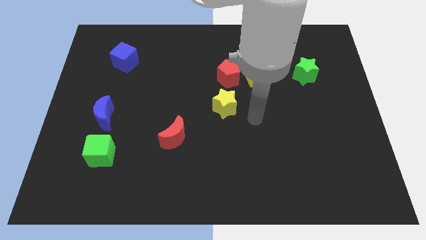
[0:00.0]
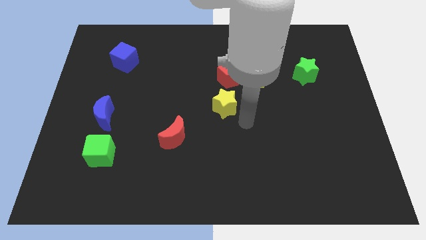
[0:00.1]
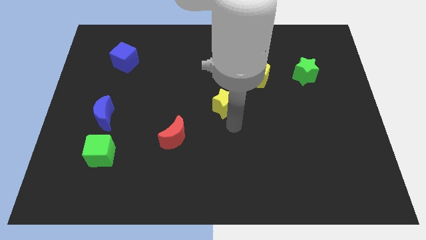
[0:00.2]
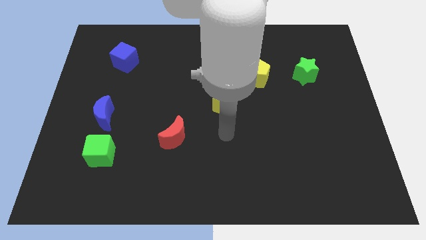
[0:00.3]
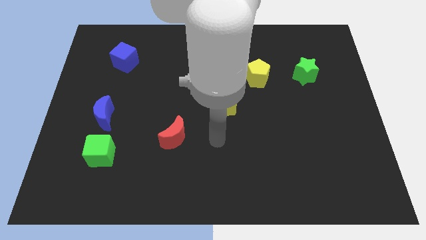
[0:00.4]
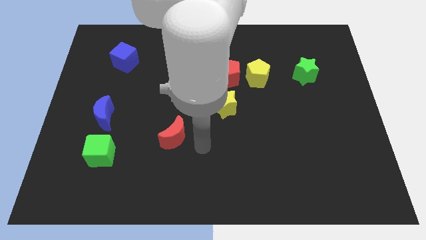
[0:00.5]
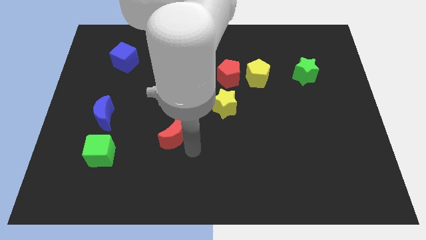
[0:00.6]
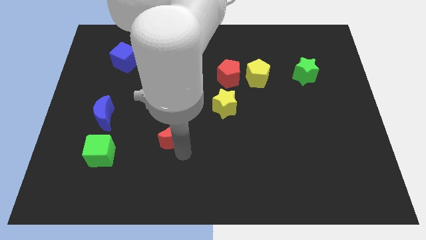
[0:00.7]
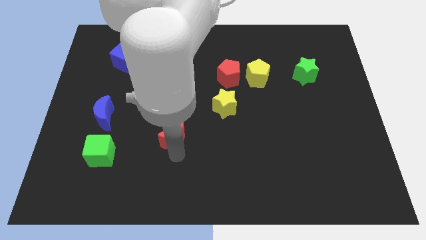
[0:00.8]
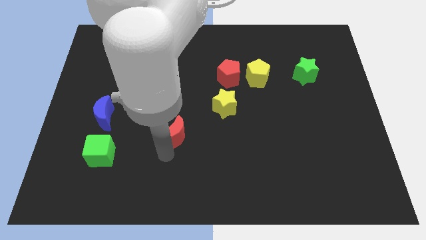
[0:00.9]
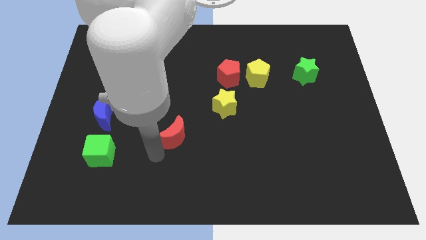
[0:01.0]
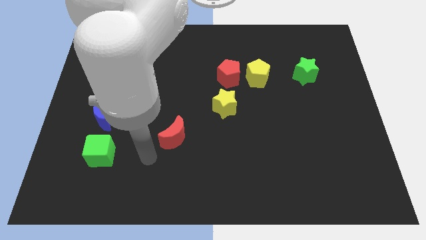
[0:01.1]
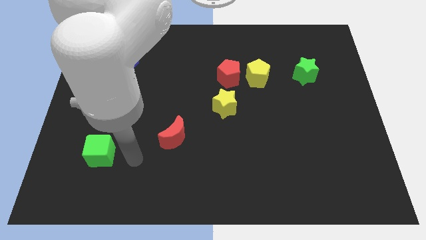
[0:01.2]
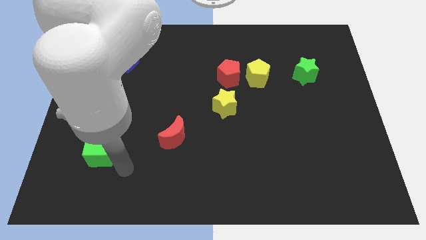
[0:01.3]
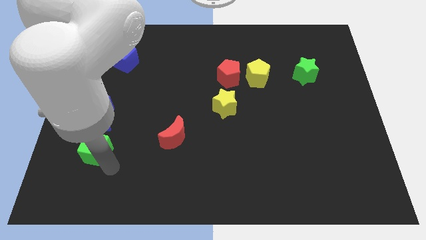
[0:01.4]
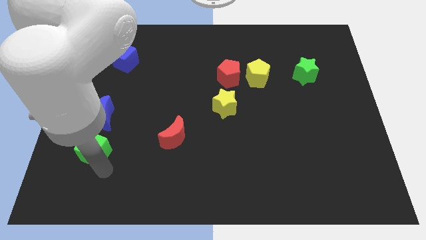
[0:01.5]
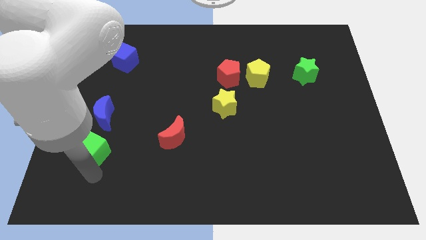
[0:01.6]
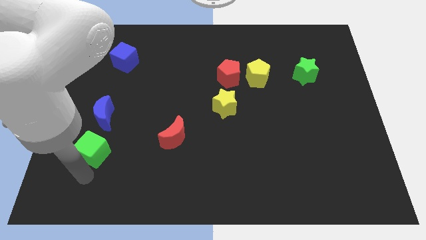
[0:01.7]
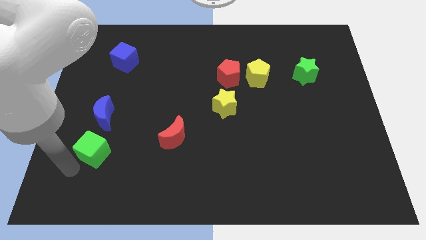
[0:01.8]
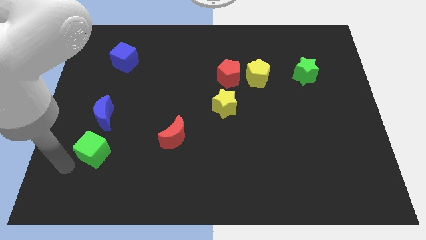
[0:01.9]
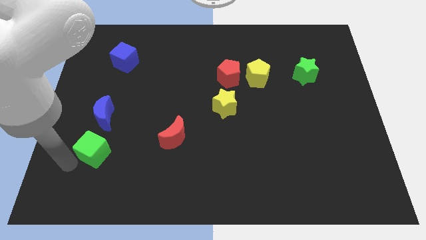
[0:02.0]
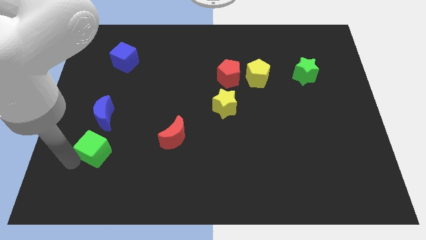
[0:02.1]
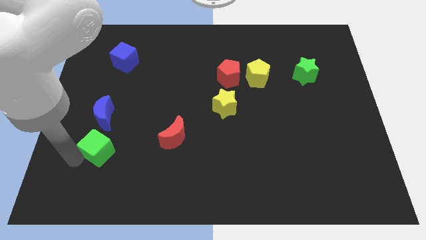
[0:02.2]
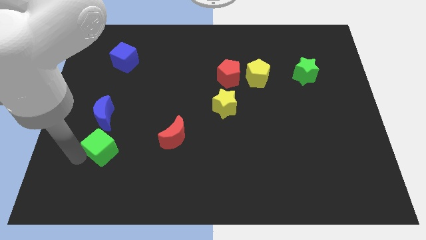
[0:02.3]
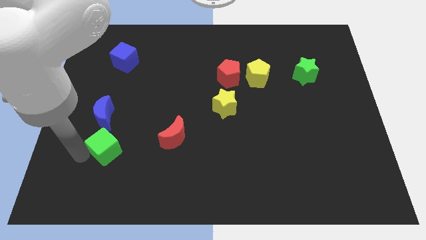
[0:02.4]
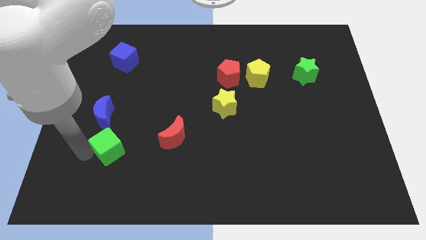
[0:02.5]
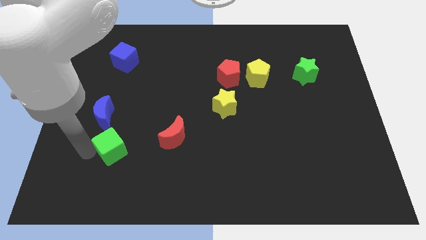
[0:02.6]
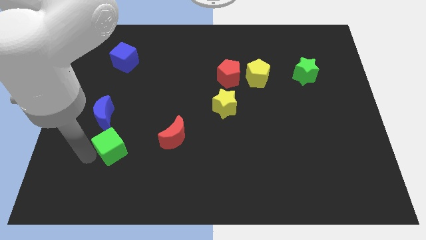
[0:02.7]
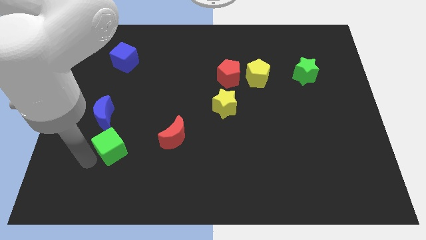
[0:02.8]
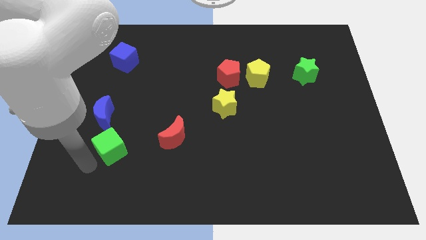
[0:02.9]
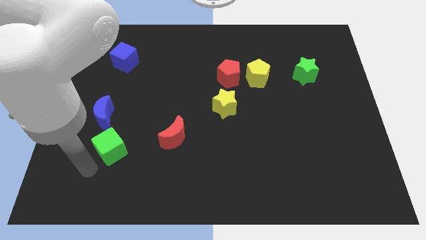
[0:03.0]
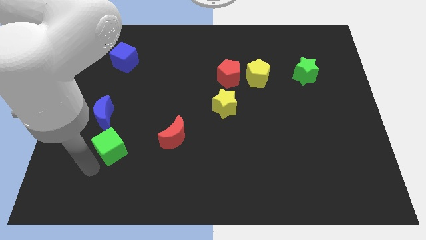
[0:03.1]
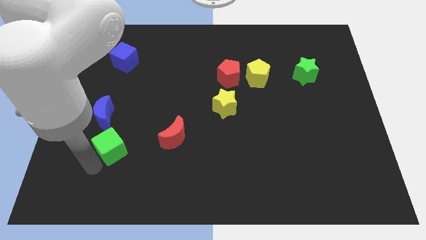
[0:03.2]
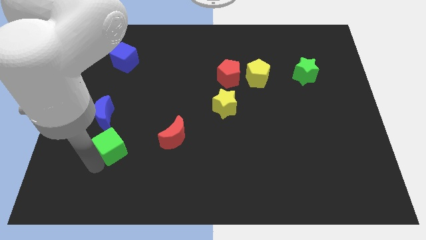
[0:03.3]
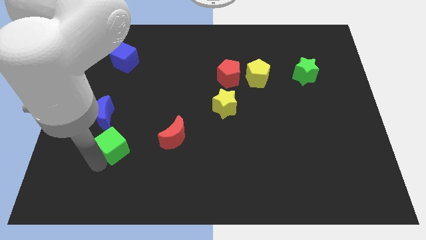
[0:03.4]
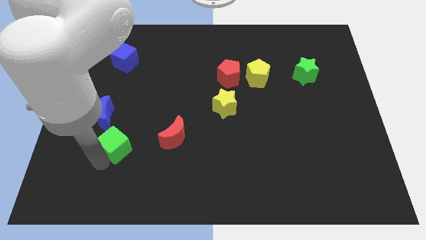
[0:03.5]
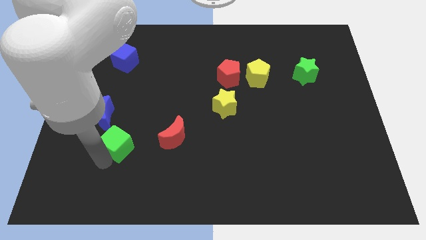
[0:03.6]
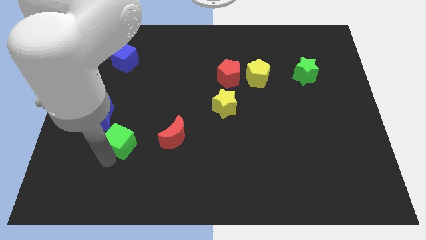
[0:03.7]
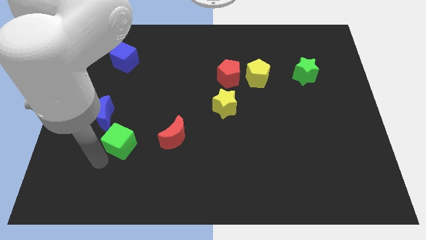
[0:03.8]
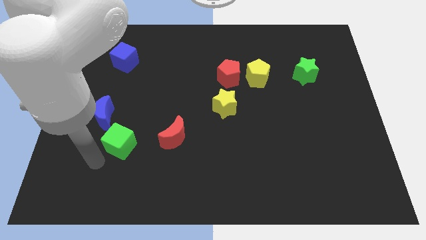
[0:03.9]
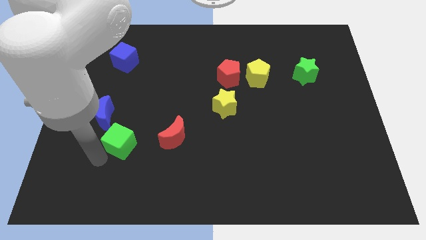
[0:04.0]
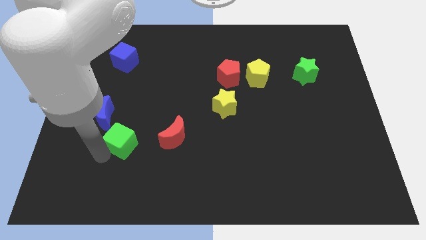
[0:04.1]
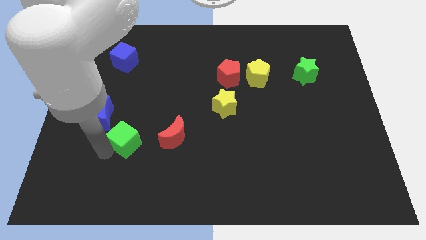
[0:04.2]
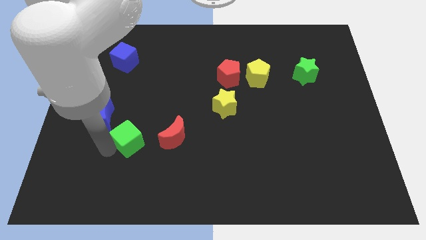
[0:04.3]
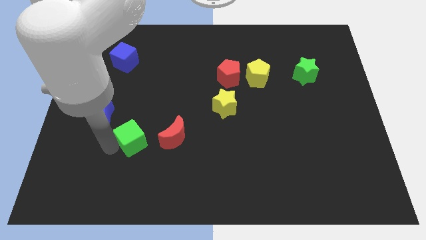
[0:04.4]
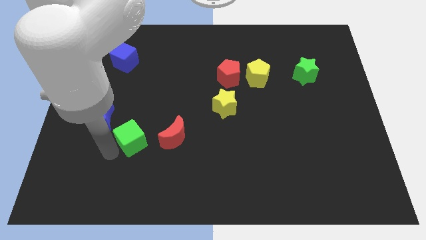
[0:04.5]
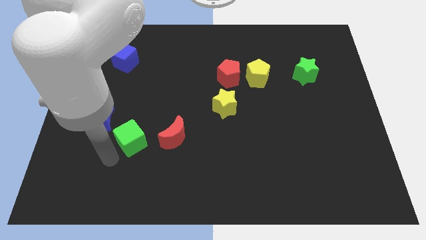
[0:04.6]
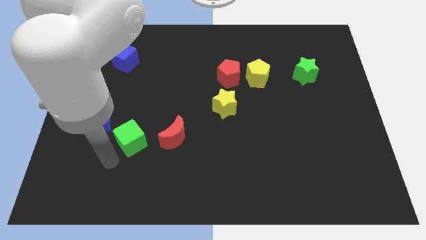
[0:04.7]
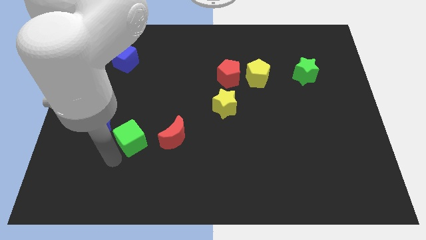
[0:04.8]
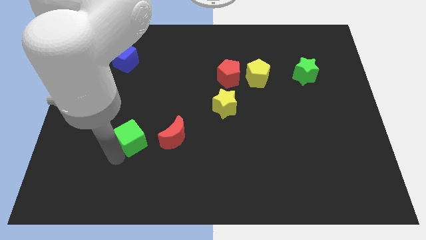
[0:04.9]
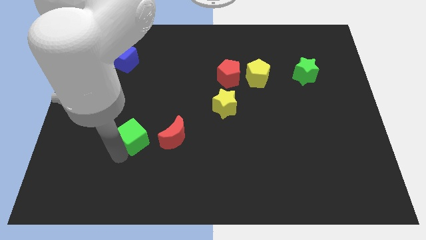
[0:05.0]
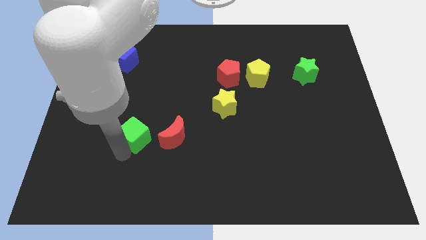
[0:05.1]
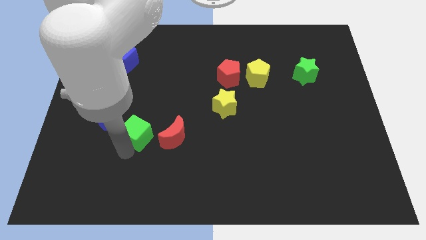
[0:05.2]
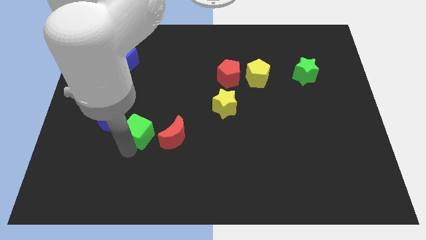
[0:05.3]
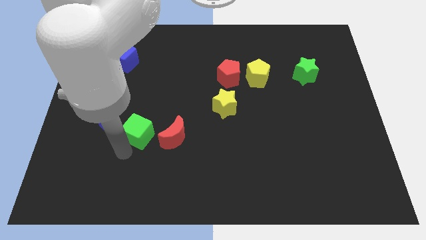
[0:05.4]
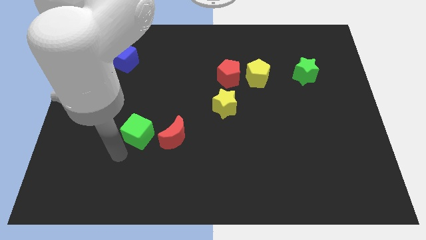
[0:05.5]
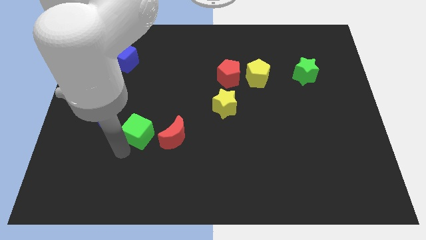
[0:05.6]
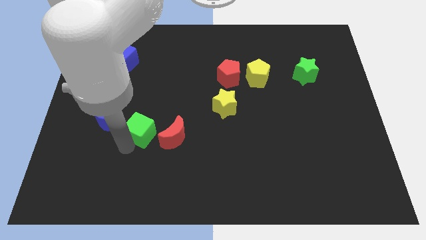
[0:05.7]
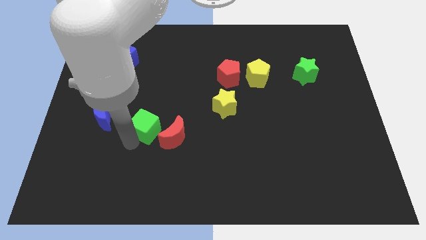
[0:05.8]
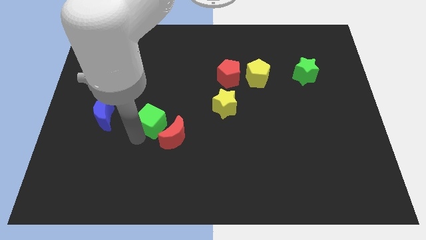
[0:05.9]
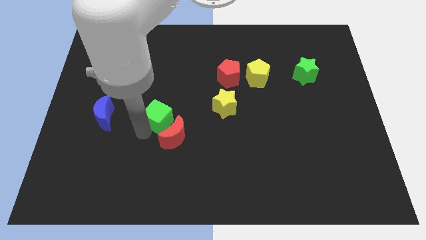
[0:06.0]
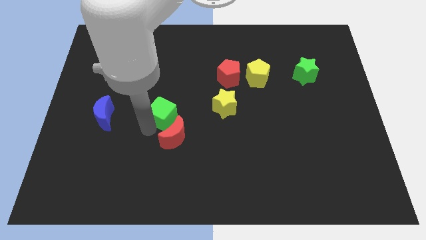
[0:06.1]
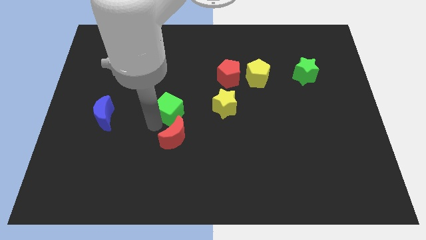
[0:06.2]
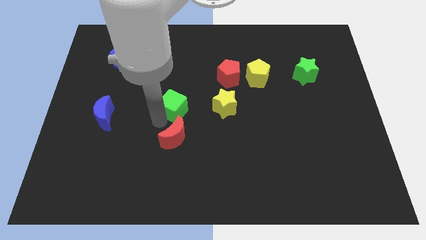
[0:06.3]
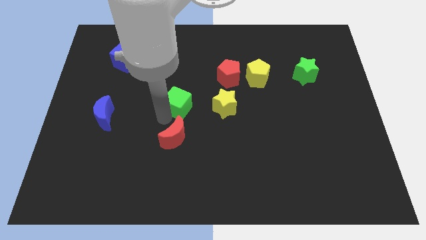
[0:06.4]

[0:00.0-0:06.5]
push the green cube upwards and then to the right

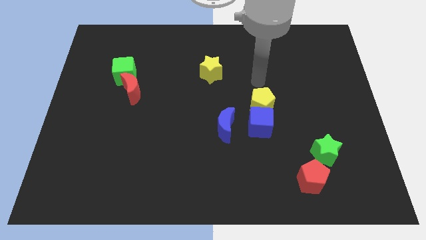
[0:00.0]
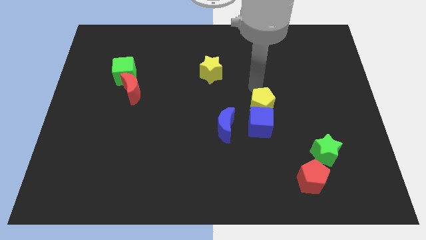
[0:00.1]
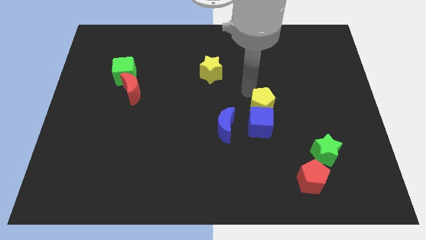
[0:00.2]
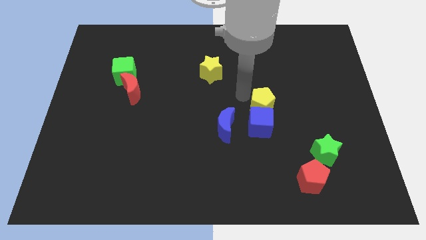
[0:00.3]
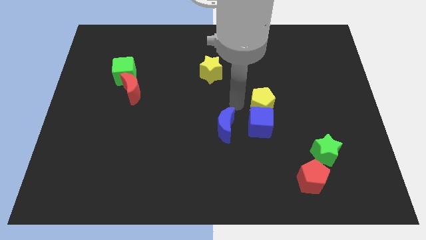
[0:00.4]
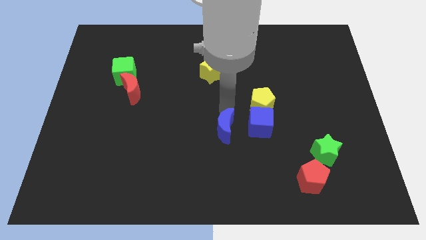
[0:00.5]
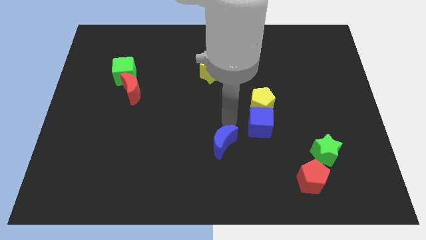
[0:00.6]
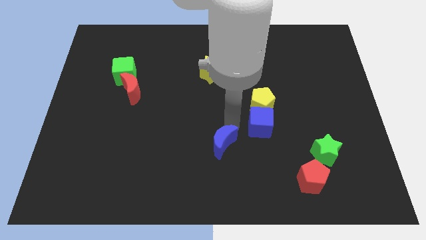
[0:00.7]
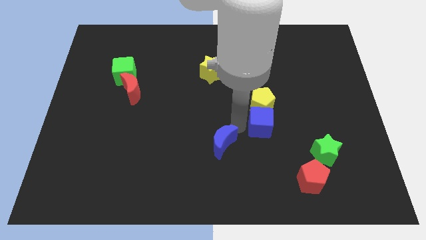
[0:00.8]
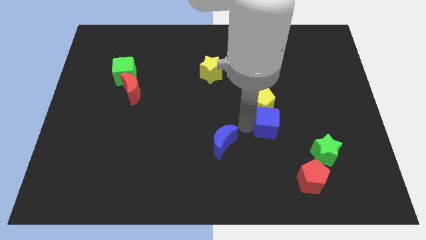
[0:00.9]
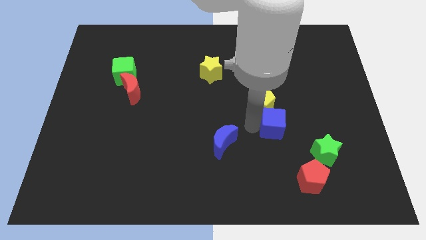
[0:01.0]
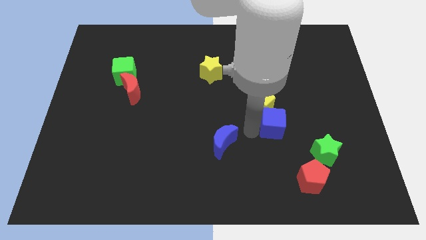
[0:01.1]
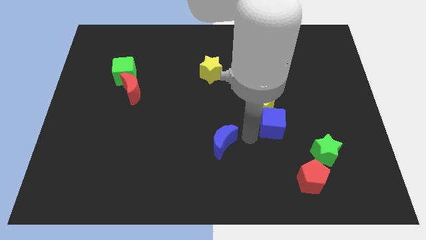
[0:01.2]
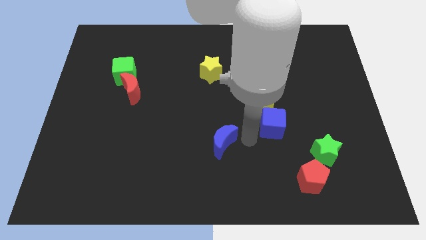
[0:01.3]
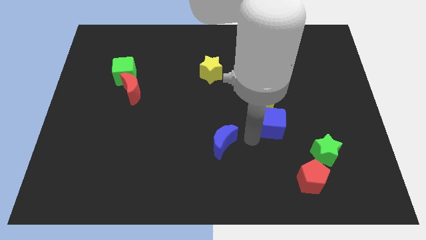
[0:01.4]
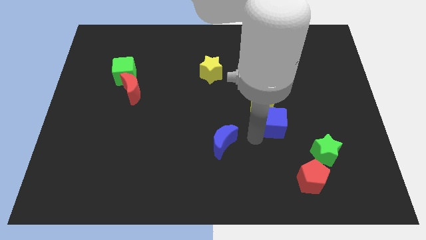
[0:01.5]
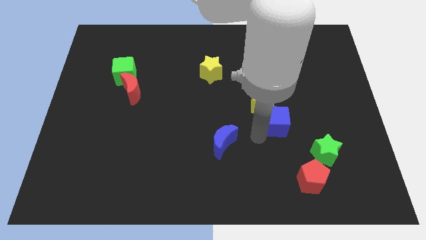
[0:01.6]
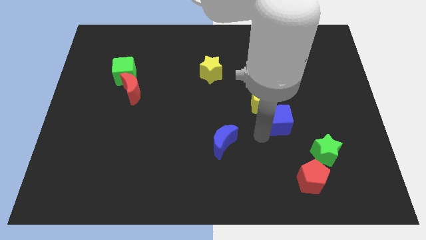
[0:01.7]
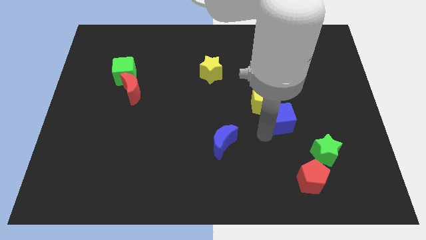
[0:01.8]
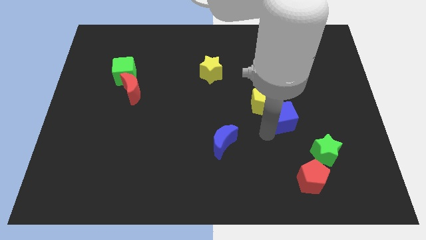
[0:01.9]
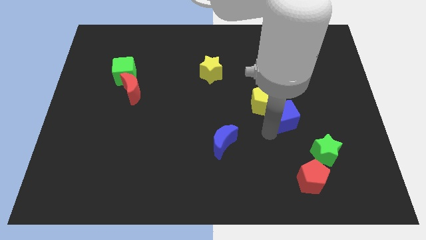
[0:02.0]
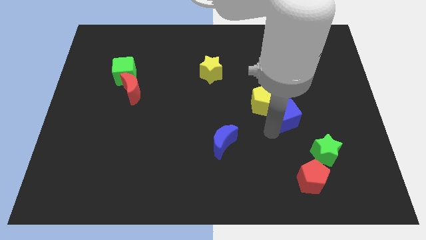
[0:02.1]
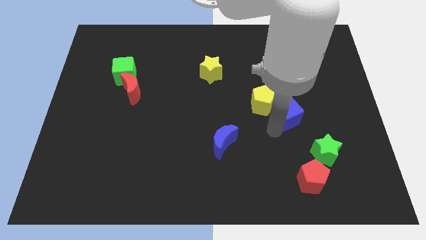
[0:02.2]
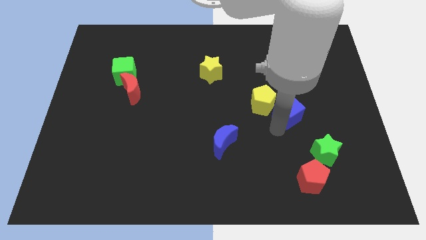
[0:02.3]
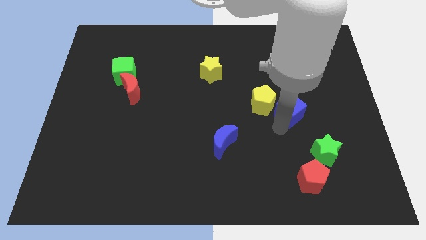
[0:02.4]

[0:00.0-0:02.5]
slightly slide the blue cube up and to the right
